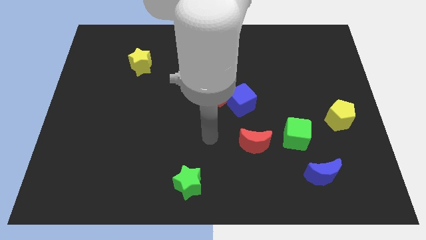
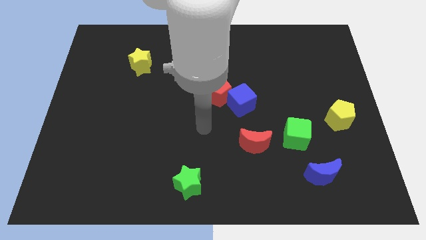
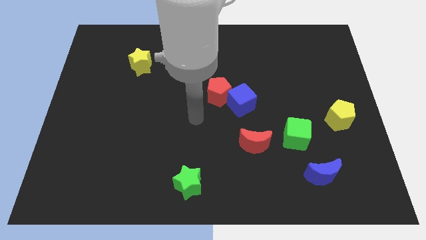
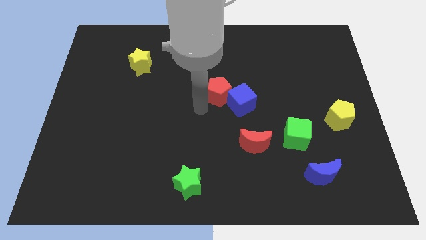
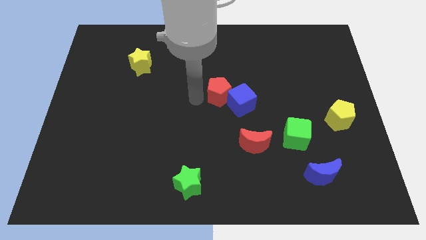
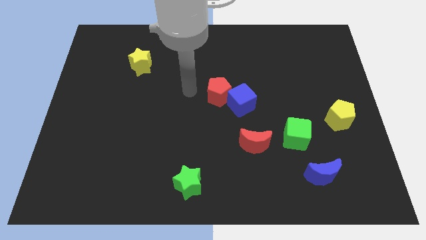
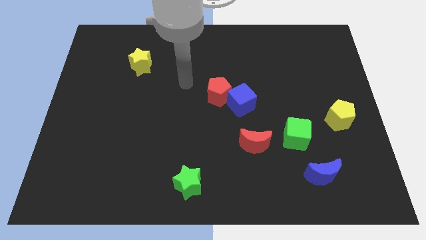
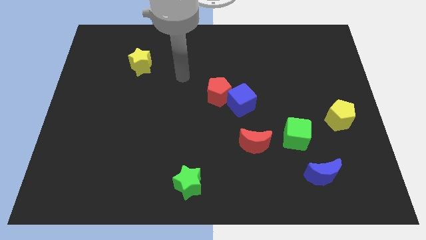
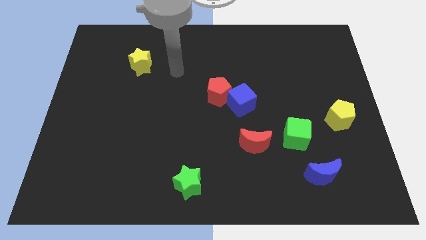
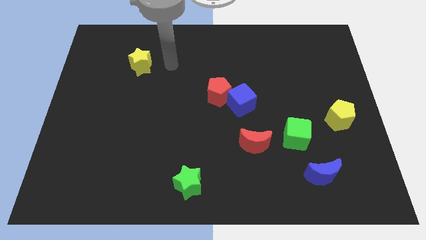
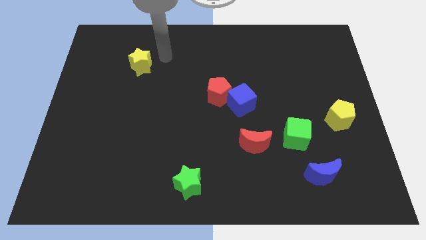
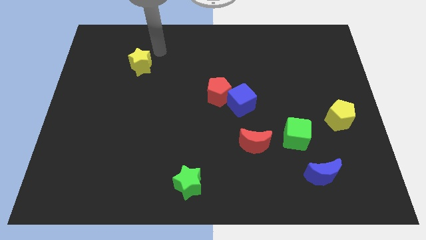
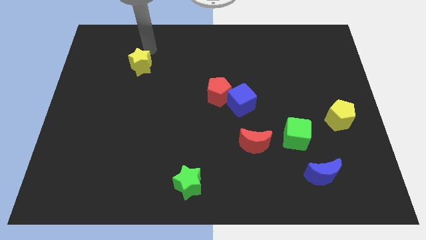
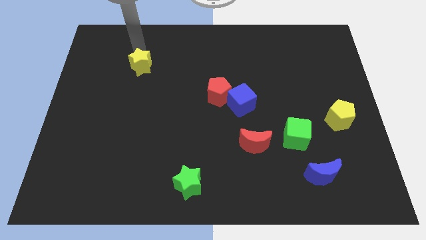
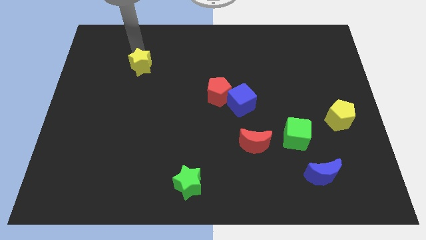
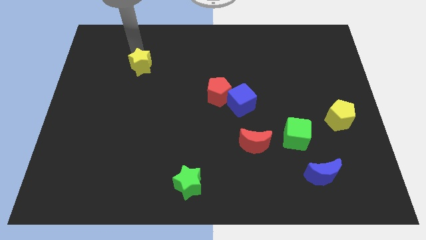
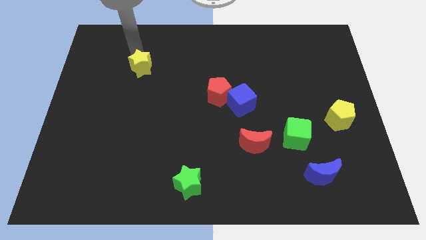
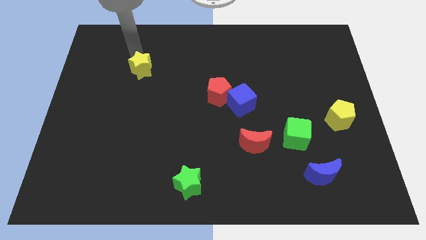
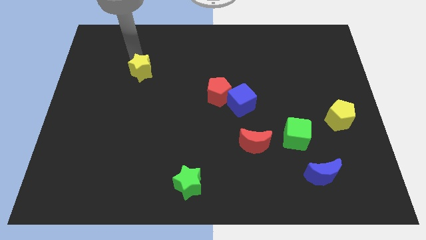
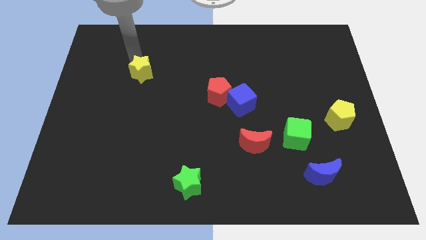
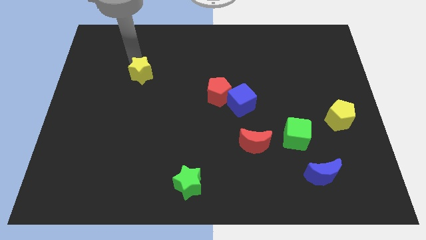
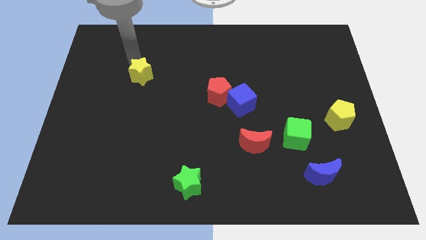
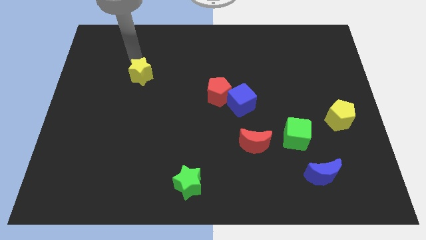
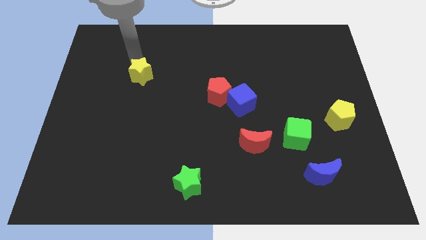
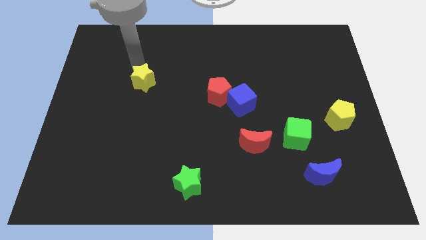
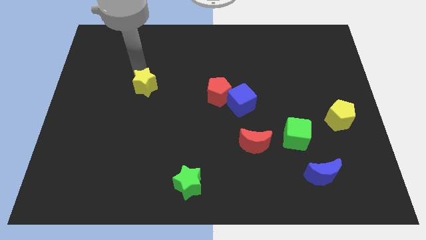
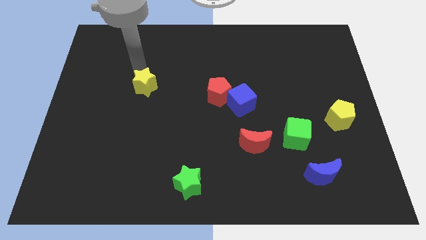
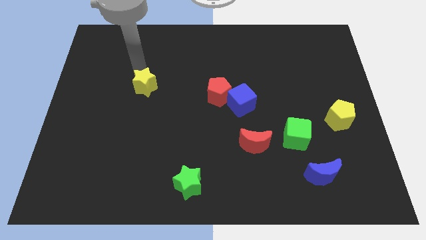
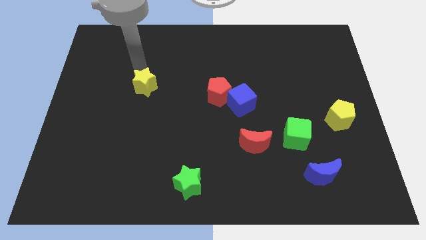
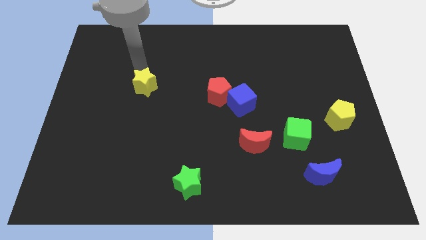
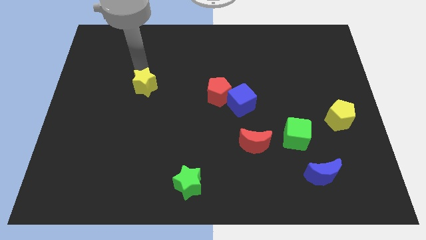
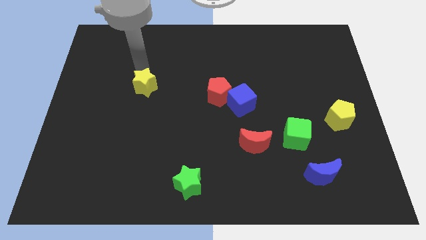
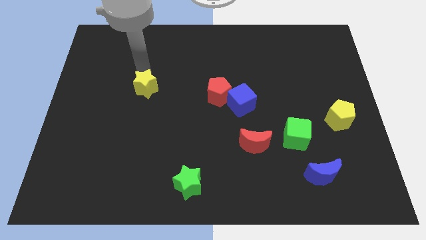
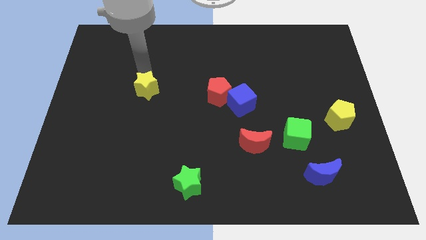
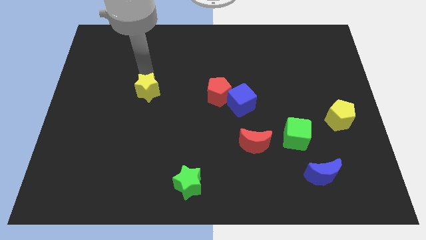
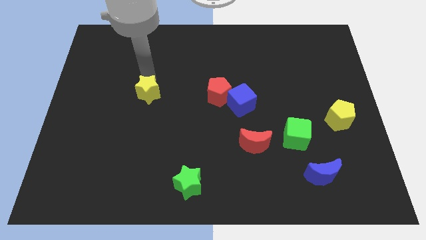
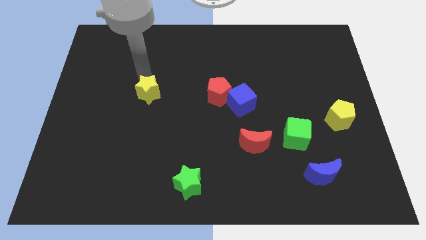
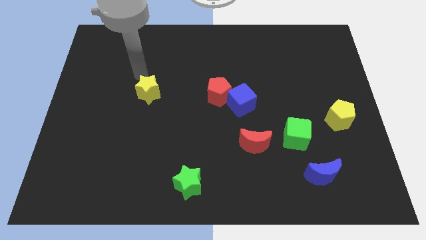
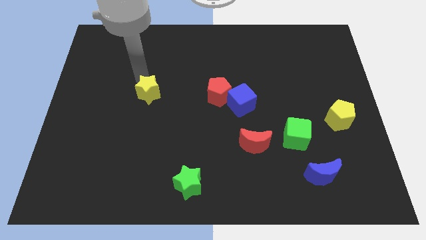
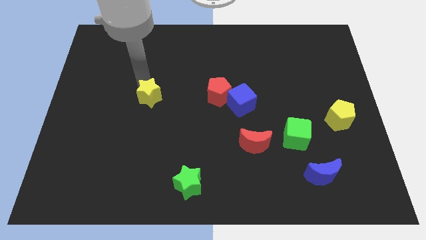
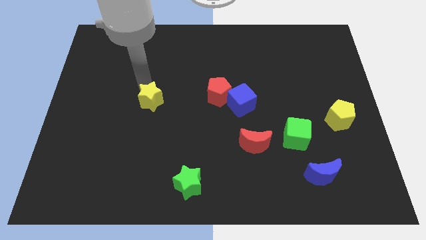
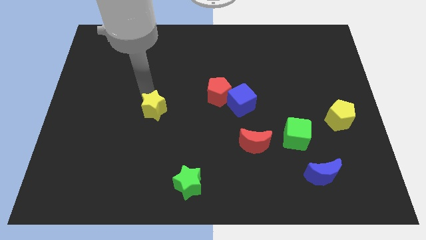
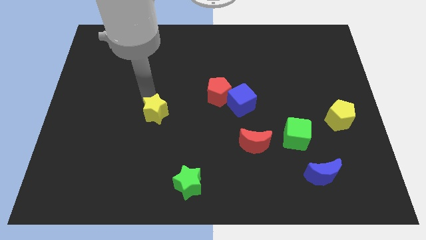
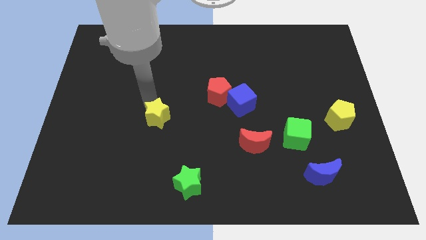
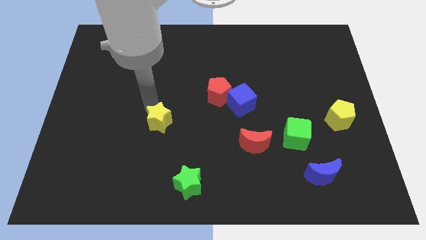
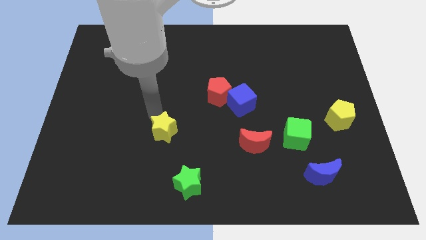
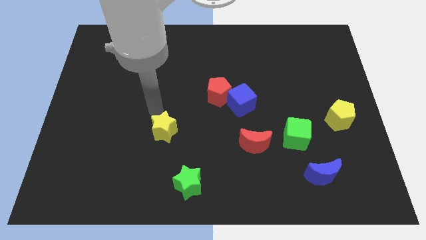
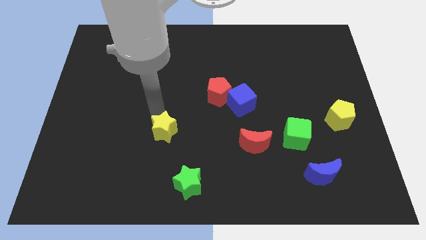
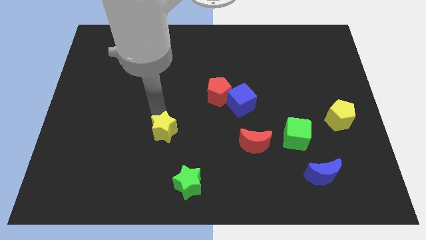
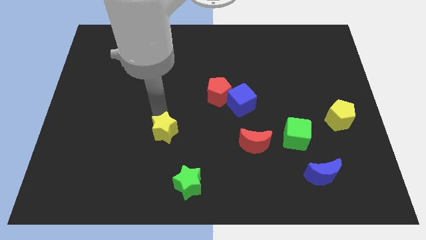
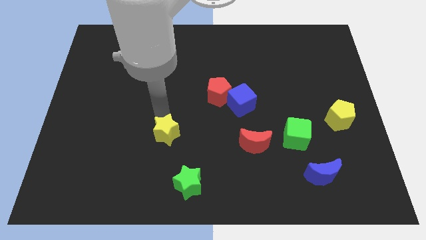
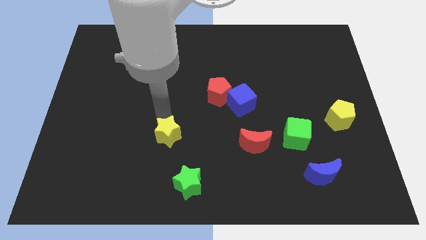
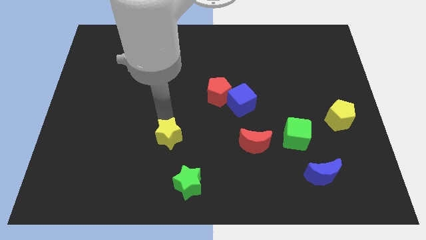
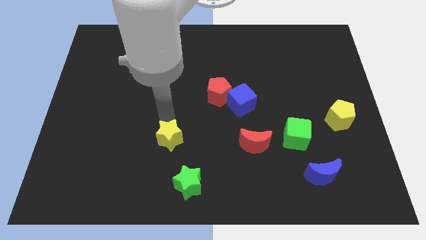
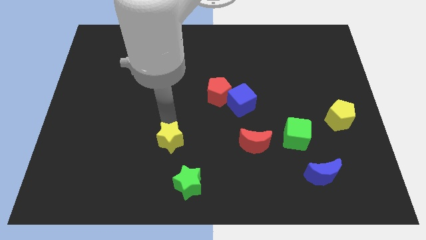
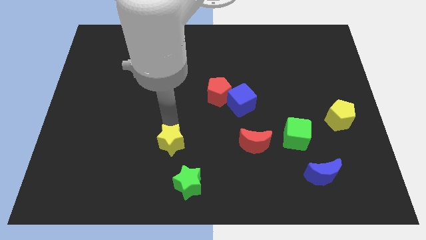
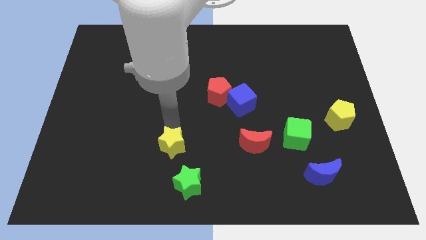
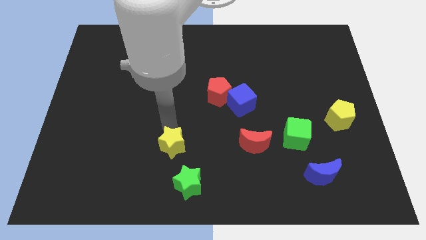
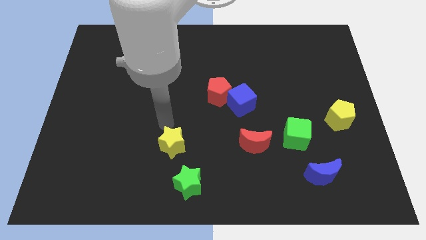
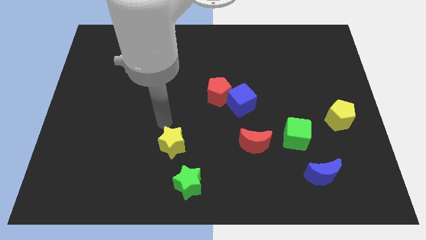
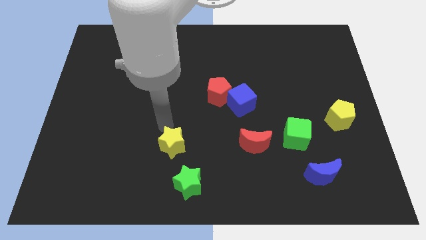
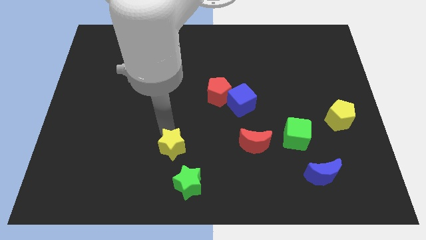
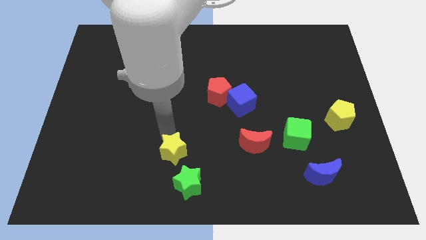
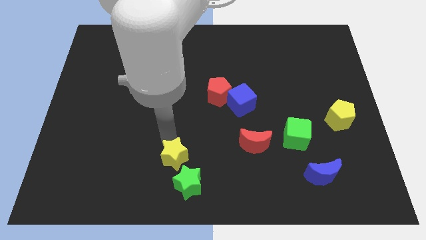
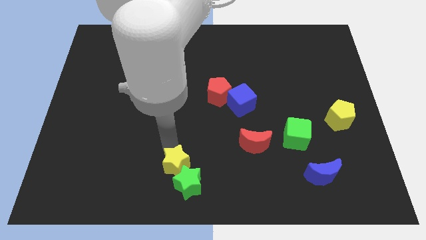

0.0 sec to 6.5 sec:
put the yellow star to the green star

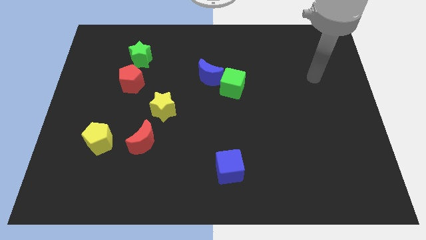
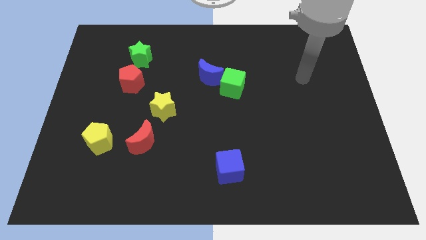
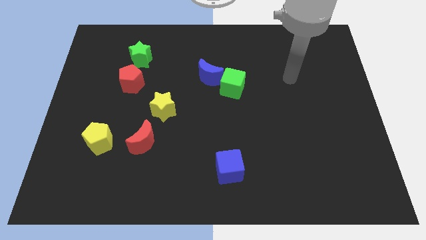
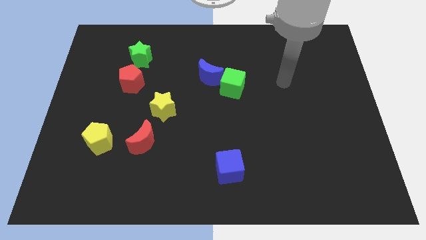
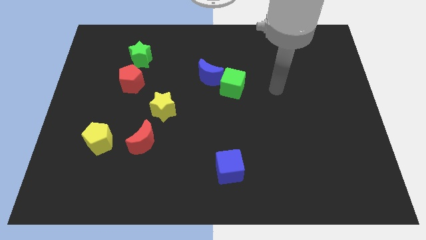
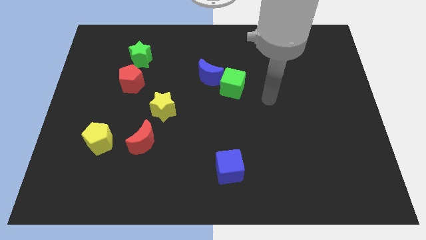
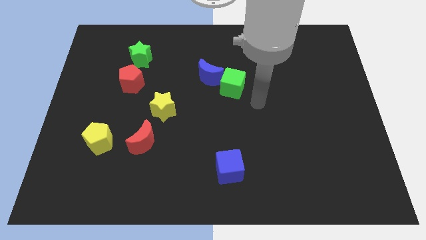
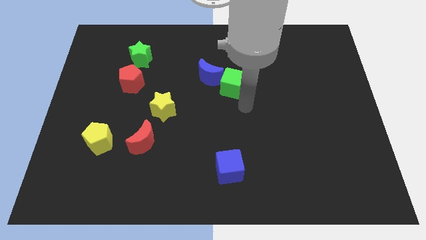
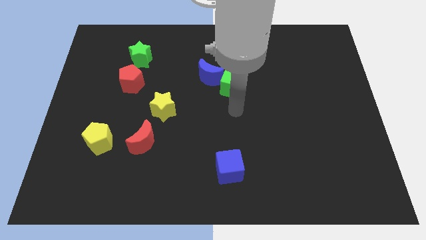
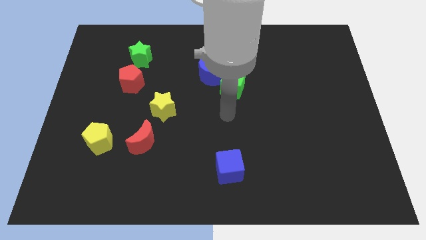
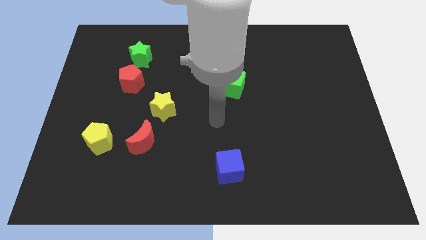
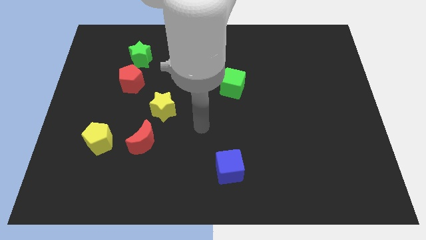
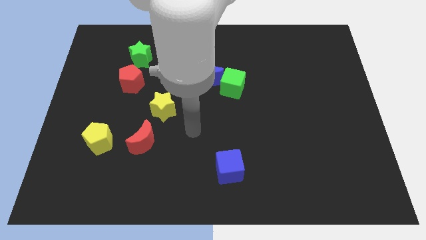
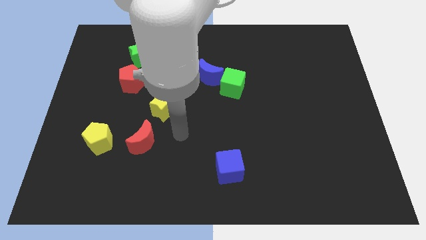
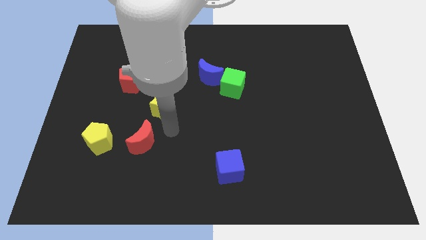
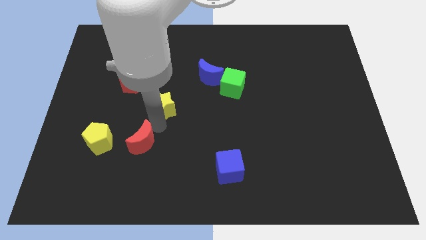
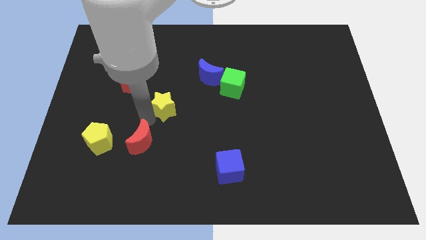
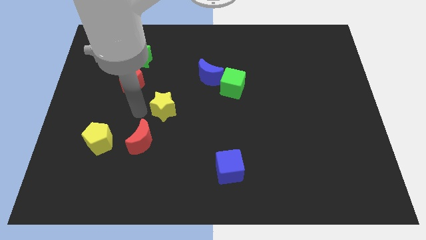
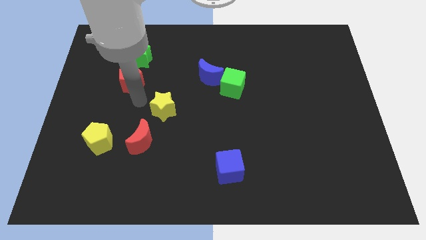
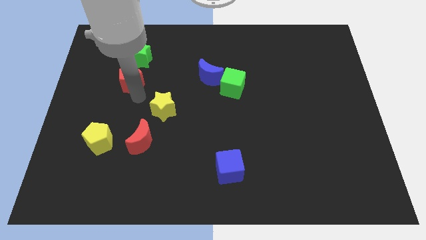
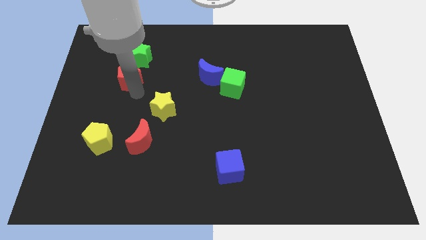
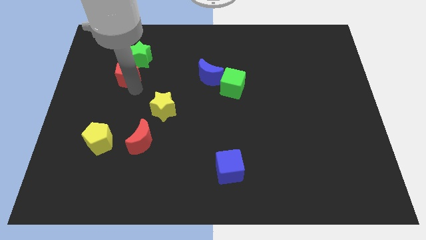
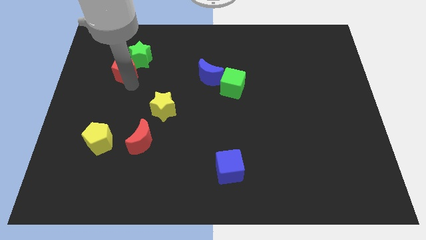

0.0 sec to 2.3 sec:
slide the red pentagon next to the green star
